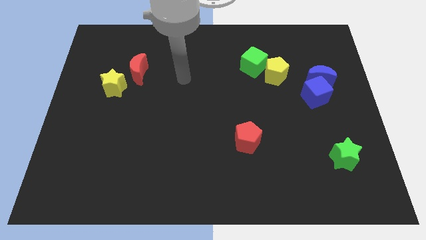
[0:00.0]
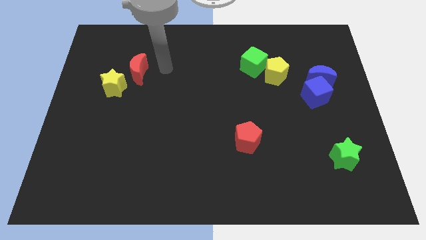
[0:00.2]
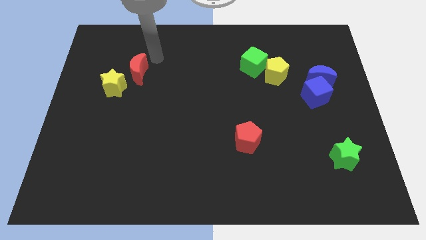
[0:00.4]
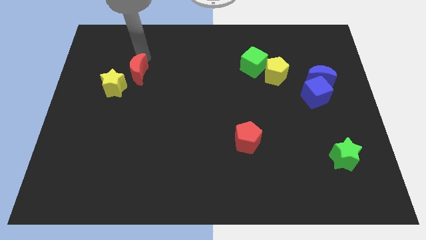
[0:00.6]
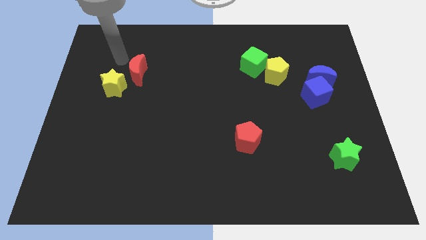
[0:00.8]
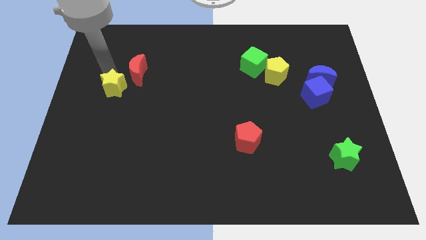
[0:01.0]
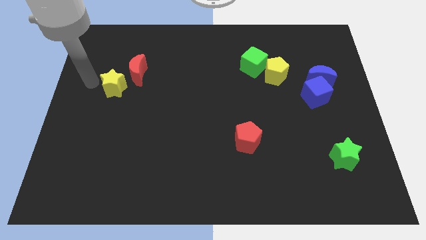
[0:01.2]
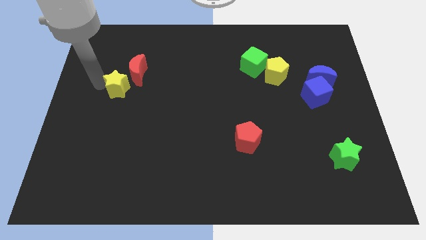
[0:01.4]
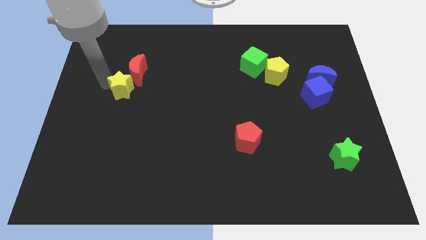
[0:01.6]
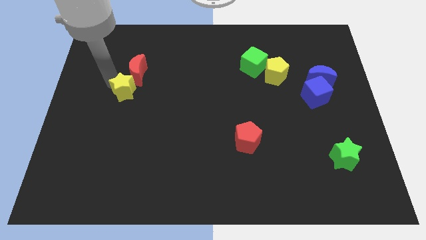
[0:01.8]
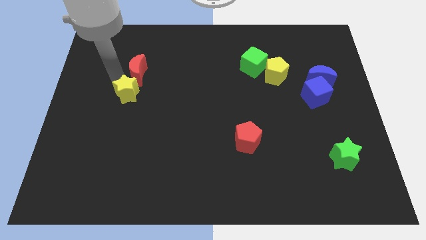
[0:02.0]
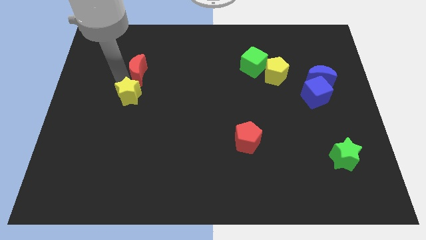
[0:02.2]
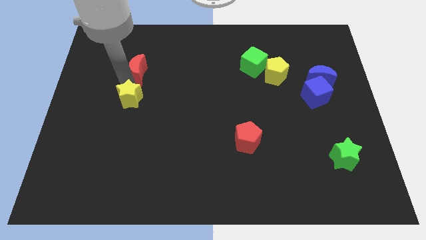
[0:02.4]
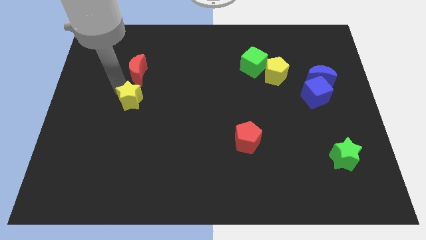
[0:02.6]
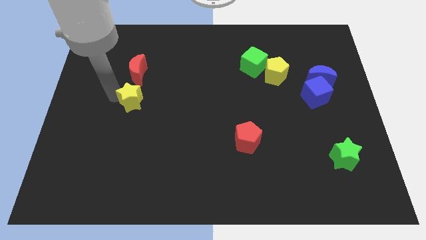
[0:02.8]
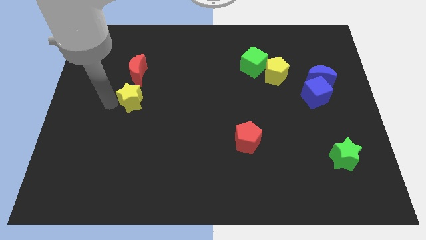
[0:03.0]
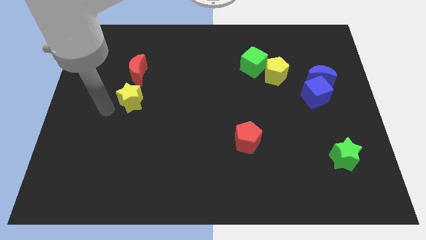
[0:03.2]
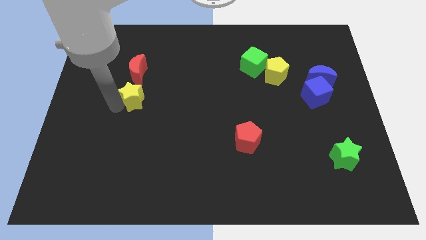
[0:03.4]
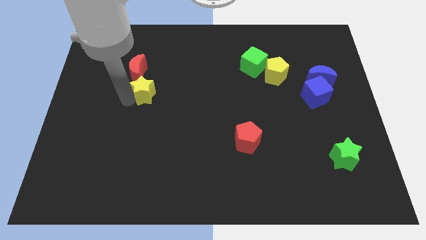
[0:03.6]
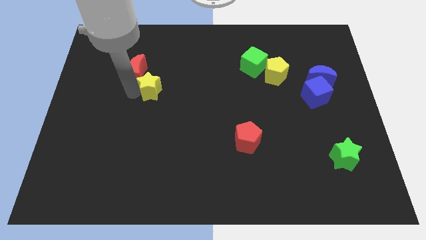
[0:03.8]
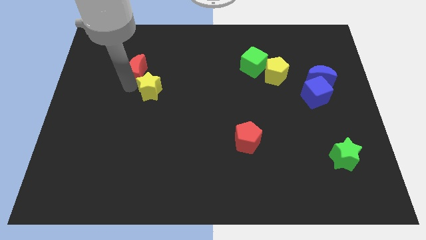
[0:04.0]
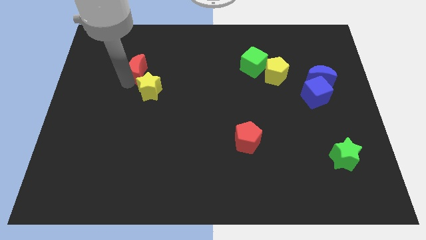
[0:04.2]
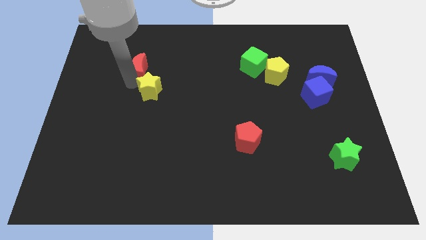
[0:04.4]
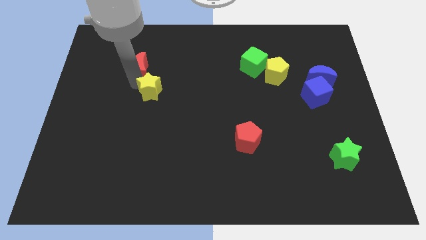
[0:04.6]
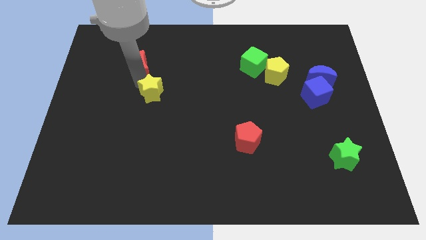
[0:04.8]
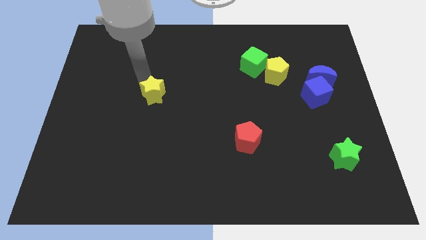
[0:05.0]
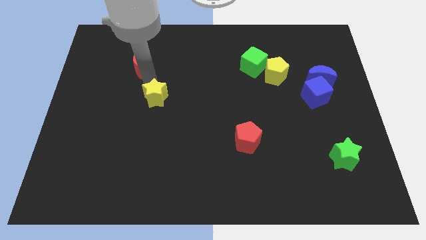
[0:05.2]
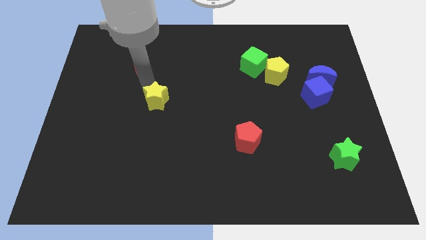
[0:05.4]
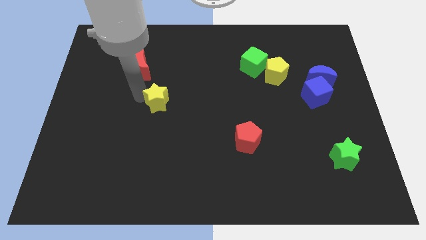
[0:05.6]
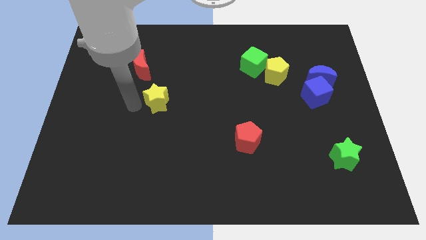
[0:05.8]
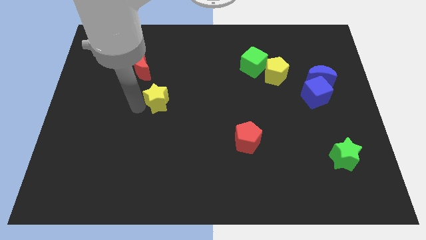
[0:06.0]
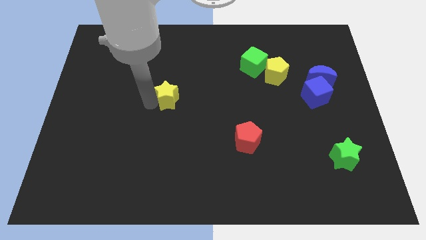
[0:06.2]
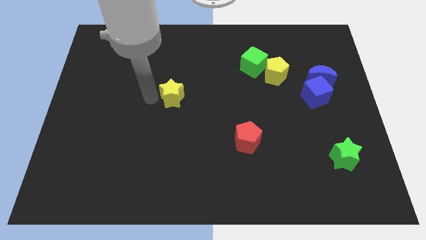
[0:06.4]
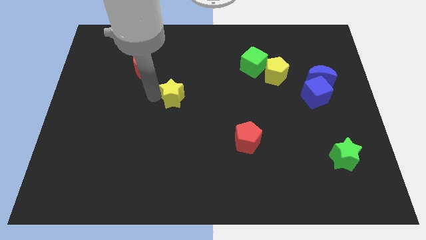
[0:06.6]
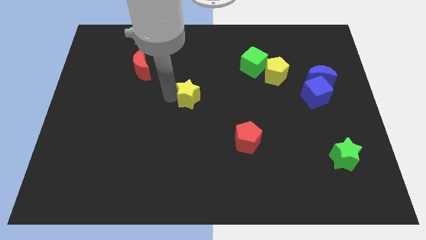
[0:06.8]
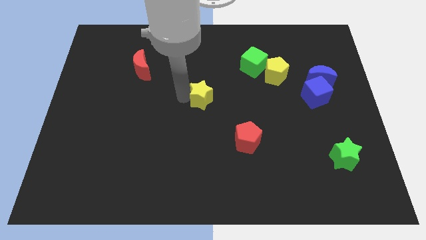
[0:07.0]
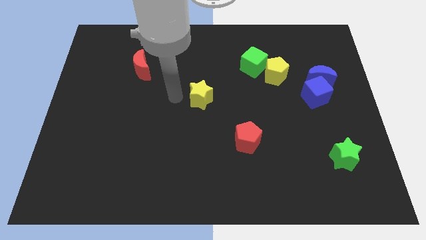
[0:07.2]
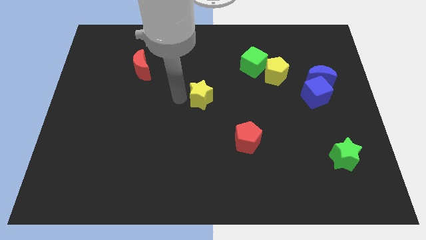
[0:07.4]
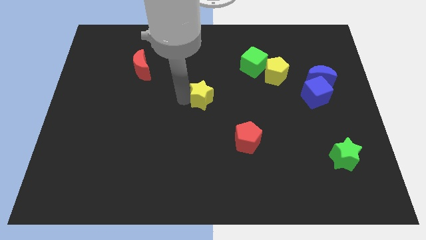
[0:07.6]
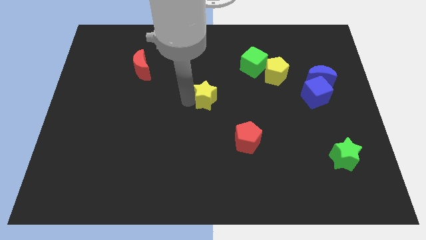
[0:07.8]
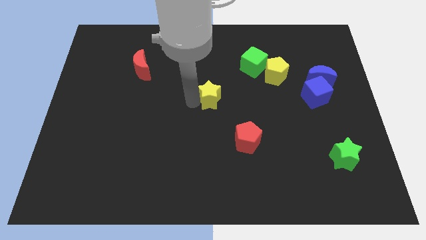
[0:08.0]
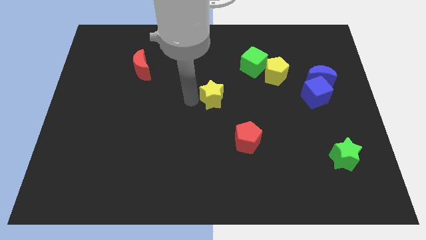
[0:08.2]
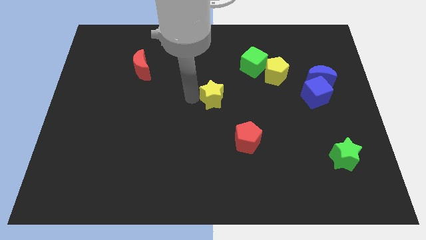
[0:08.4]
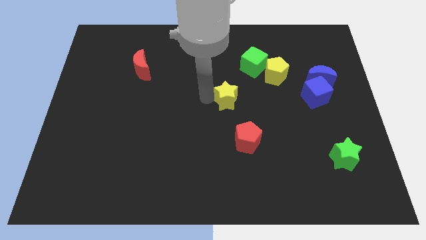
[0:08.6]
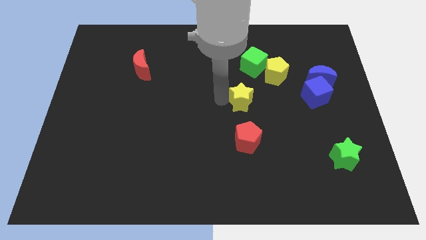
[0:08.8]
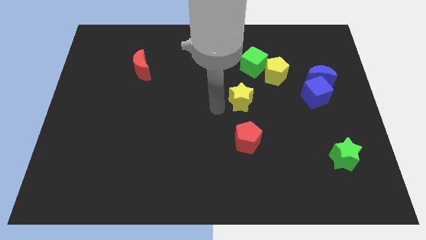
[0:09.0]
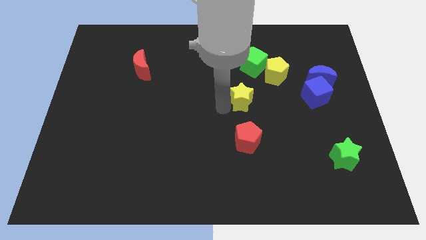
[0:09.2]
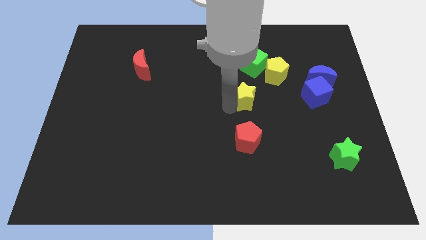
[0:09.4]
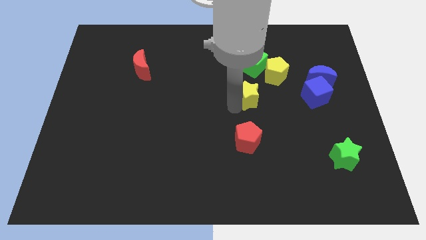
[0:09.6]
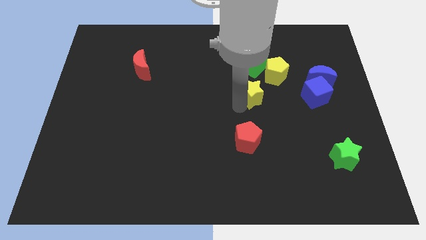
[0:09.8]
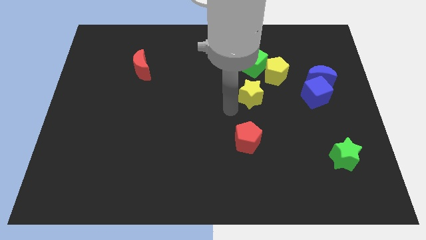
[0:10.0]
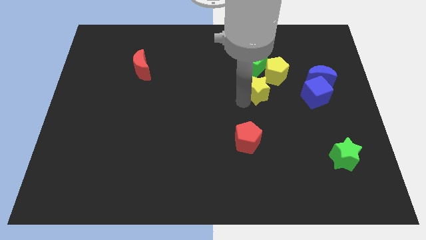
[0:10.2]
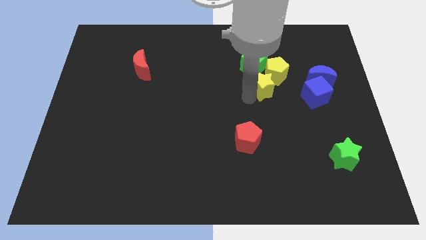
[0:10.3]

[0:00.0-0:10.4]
put the yellow star to the bottom right side of the green cube

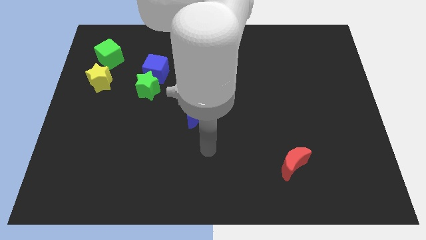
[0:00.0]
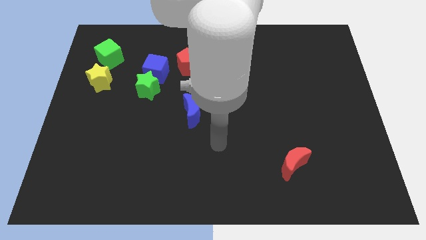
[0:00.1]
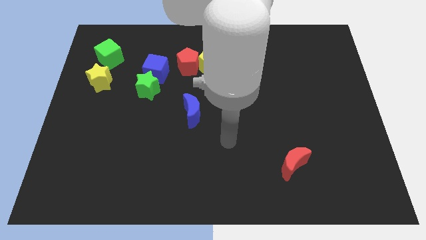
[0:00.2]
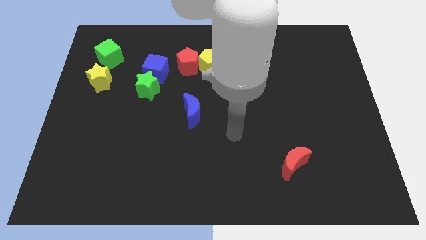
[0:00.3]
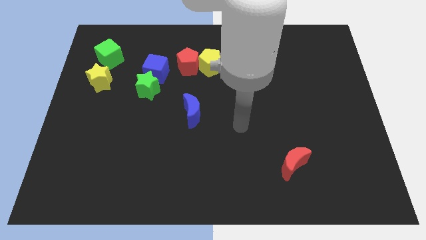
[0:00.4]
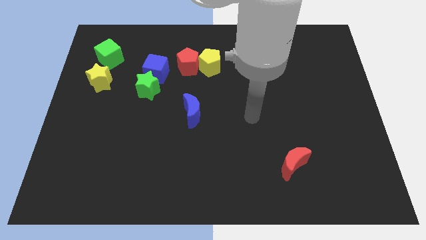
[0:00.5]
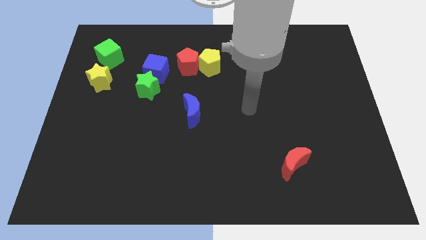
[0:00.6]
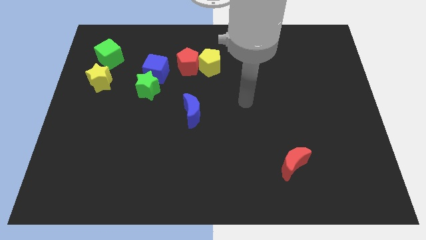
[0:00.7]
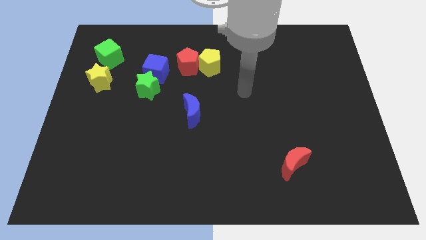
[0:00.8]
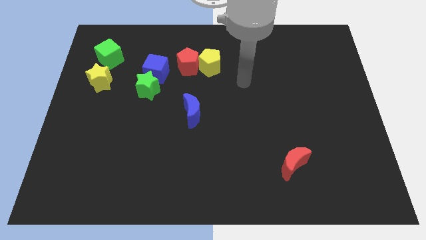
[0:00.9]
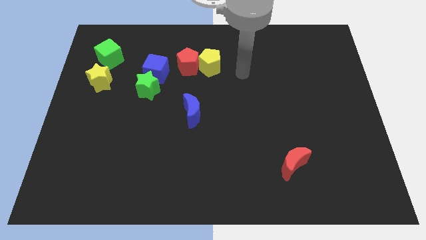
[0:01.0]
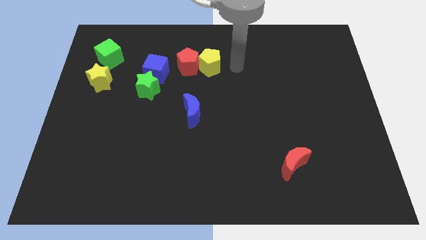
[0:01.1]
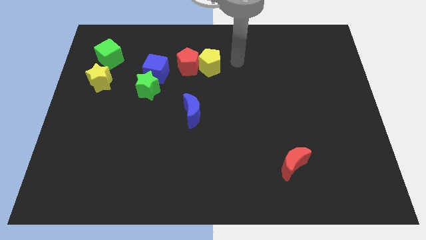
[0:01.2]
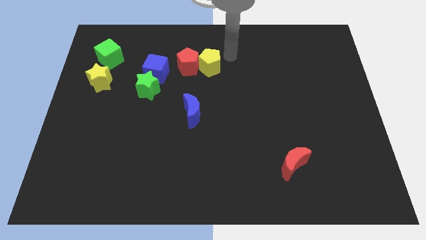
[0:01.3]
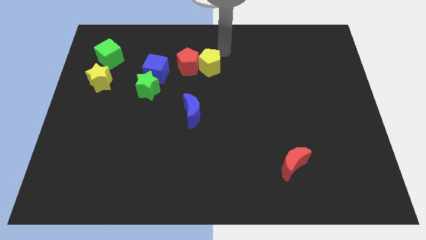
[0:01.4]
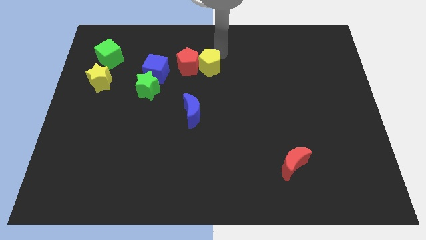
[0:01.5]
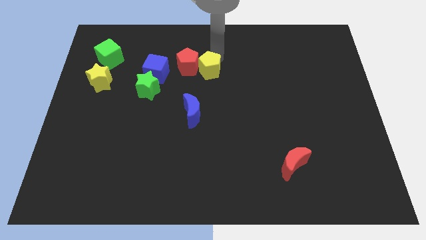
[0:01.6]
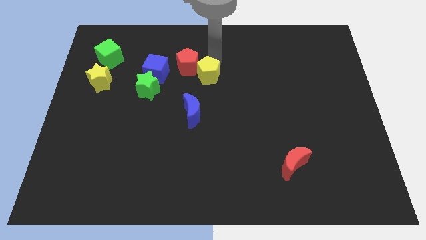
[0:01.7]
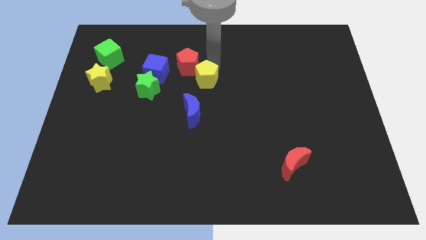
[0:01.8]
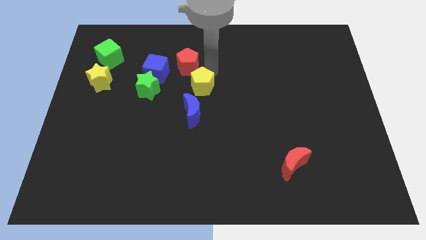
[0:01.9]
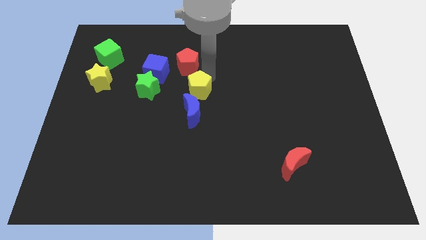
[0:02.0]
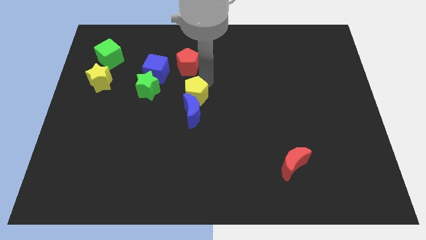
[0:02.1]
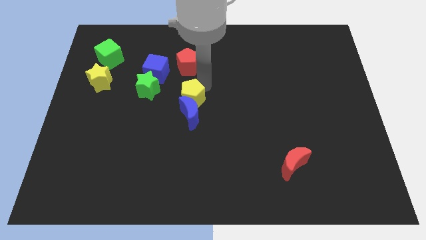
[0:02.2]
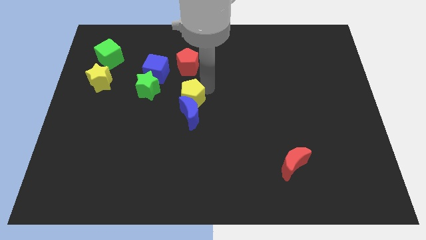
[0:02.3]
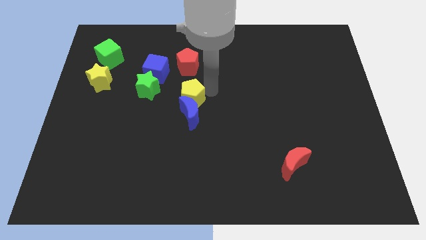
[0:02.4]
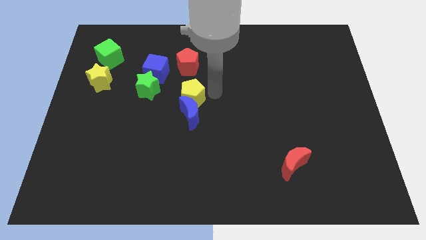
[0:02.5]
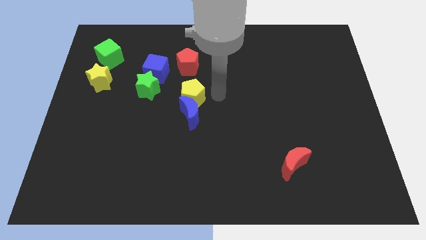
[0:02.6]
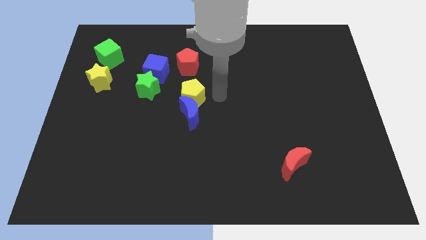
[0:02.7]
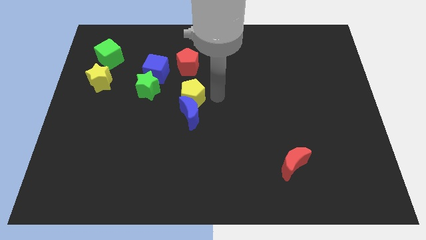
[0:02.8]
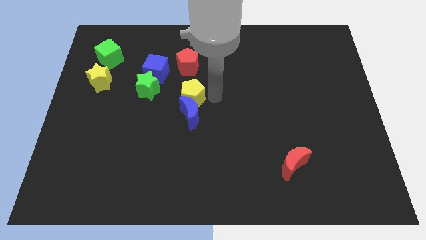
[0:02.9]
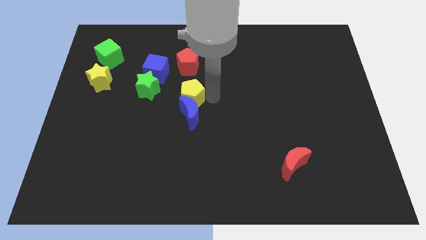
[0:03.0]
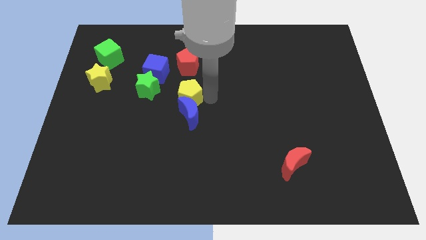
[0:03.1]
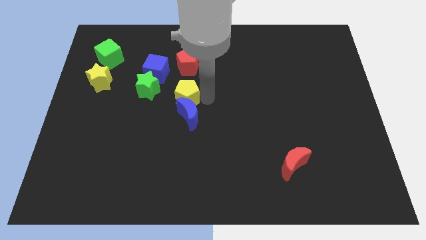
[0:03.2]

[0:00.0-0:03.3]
move the yellow pentagon diagonally down and to the right of the green star
